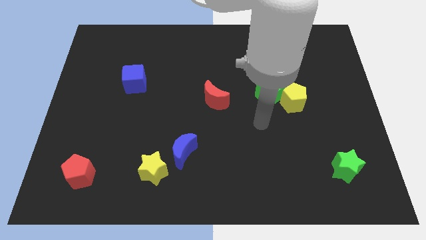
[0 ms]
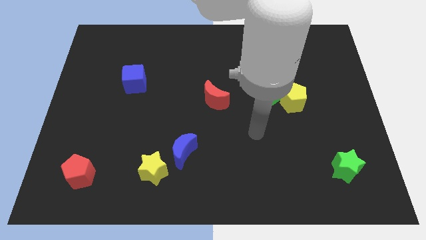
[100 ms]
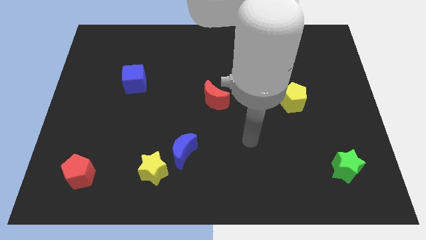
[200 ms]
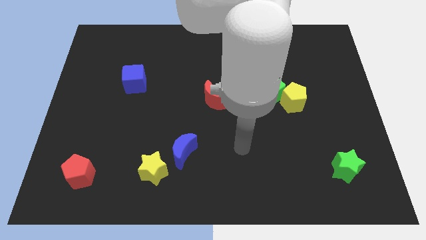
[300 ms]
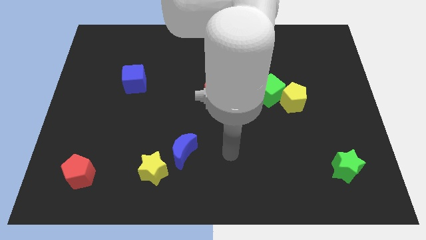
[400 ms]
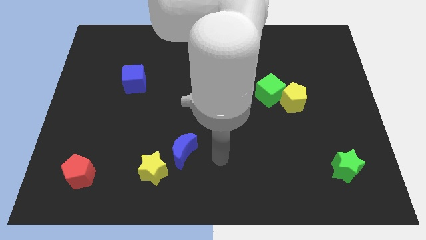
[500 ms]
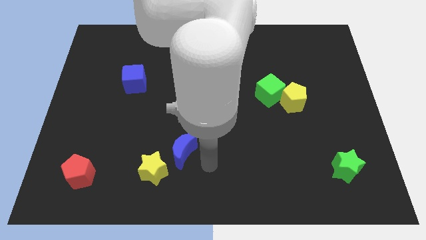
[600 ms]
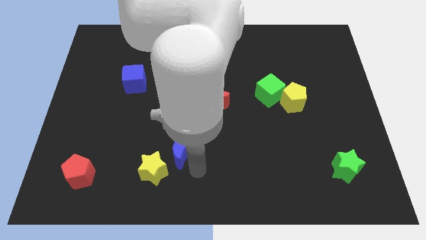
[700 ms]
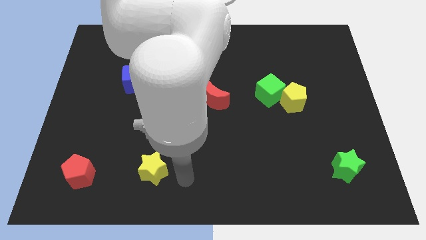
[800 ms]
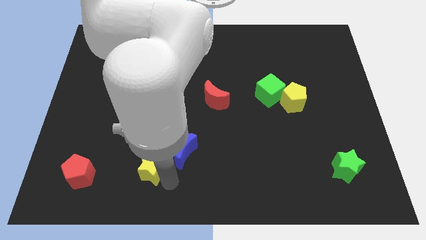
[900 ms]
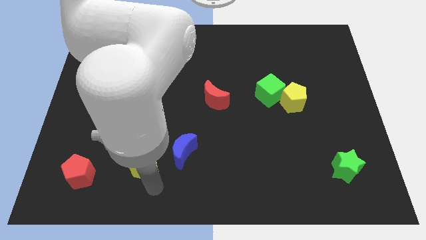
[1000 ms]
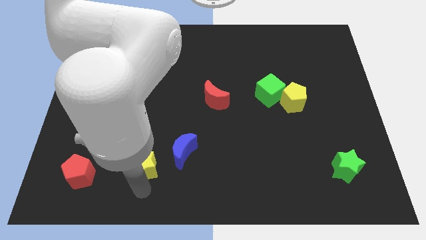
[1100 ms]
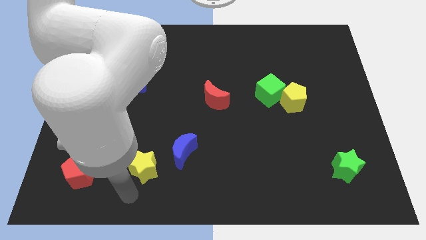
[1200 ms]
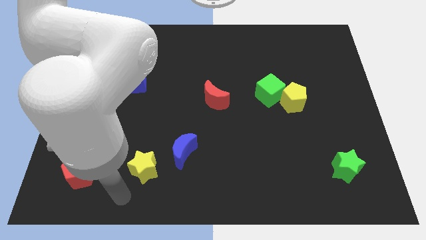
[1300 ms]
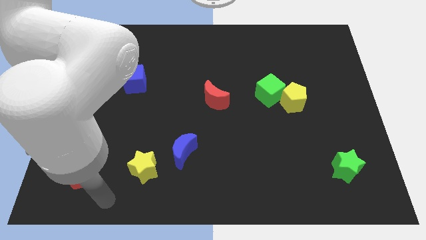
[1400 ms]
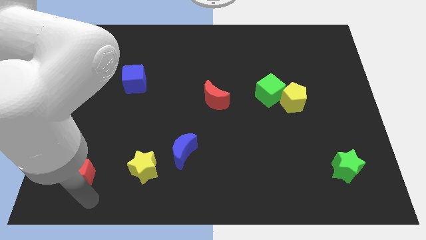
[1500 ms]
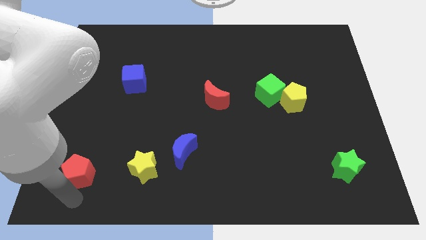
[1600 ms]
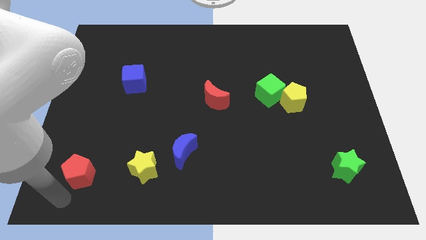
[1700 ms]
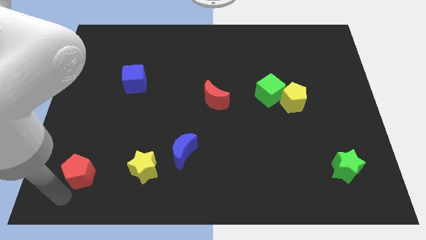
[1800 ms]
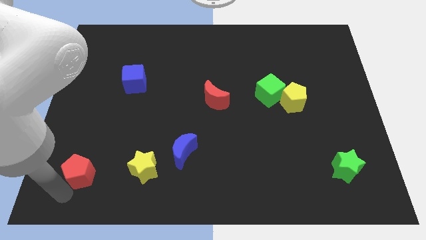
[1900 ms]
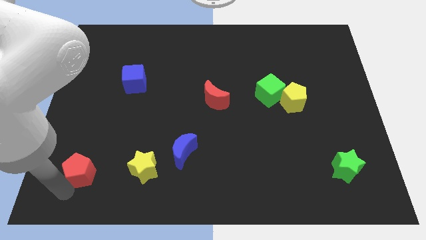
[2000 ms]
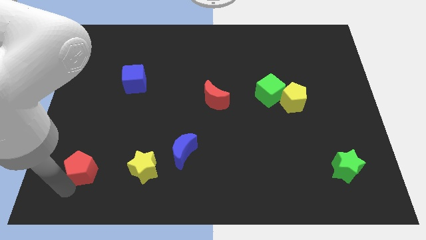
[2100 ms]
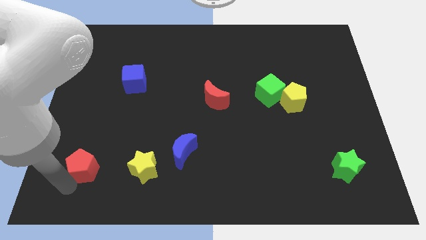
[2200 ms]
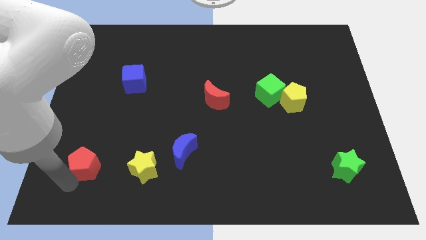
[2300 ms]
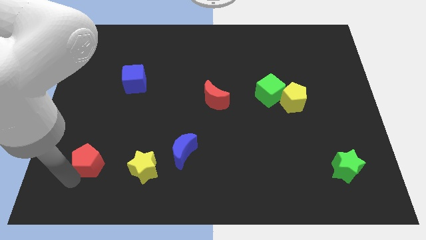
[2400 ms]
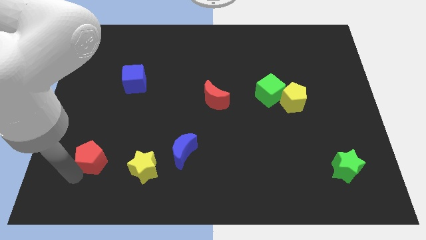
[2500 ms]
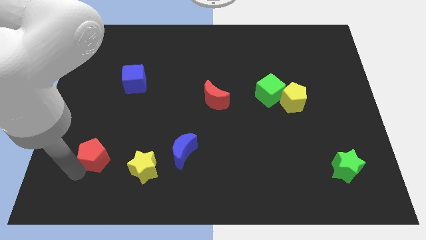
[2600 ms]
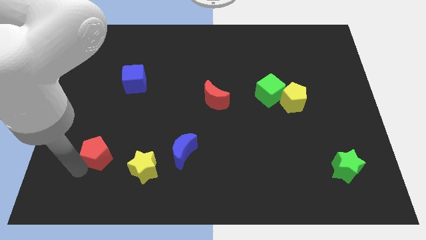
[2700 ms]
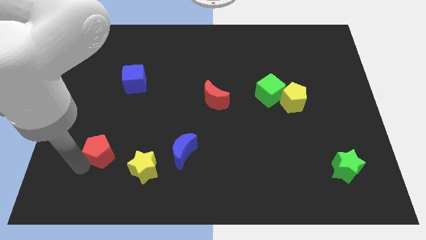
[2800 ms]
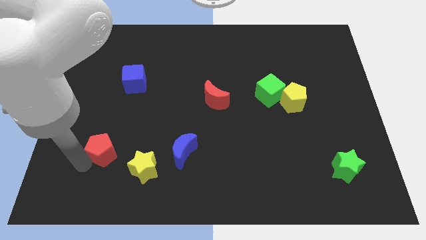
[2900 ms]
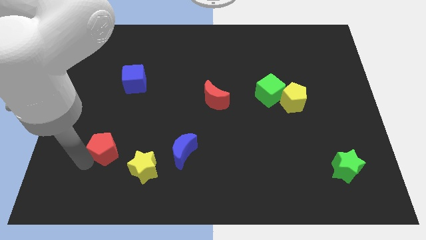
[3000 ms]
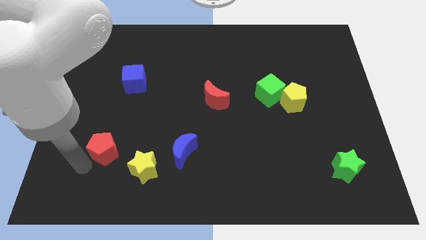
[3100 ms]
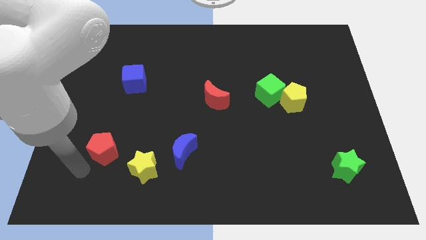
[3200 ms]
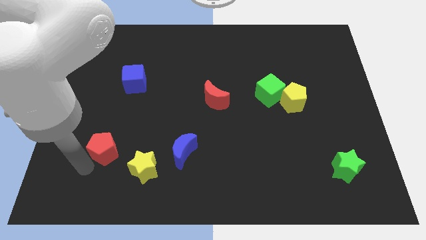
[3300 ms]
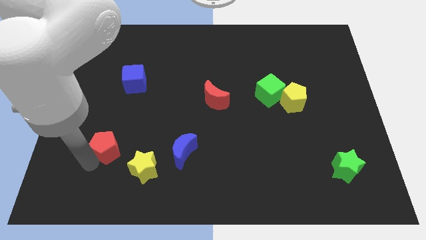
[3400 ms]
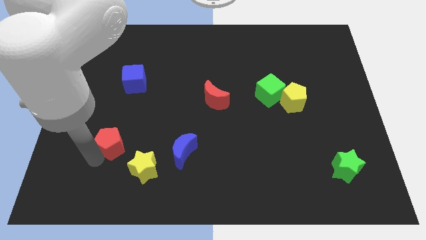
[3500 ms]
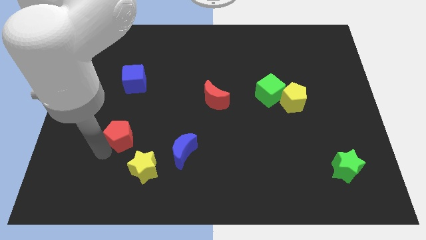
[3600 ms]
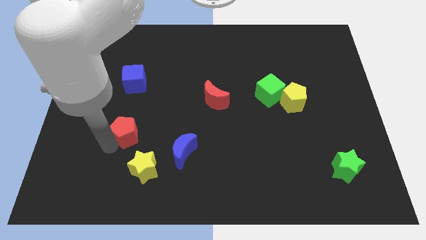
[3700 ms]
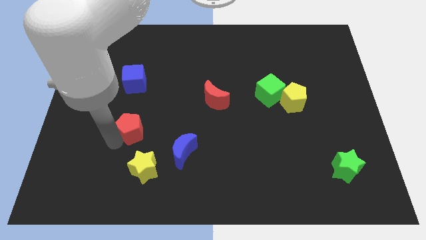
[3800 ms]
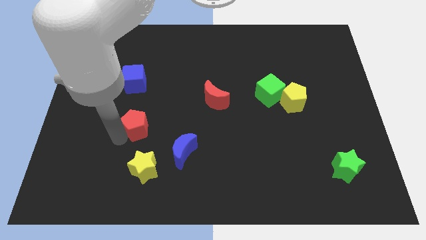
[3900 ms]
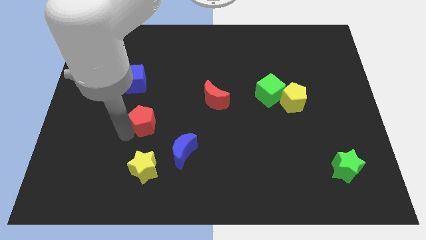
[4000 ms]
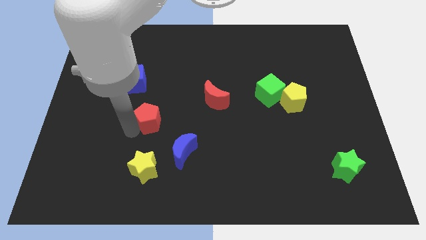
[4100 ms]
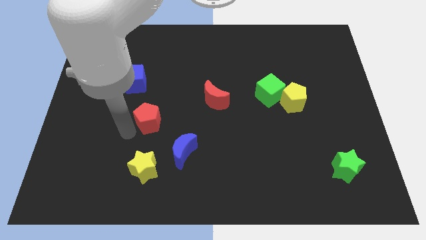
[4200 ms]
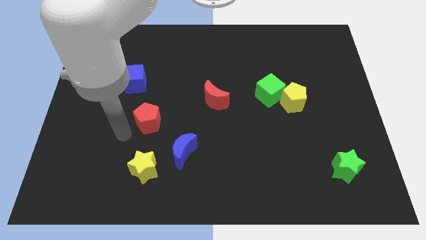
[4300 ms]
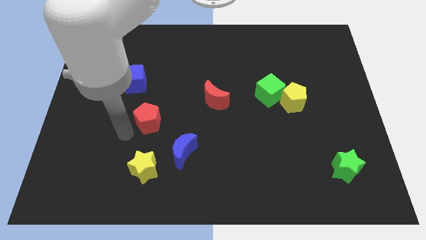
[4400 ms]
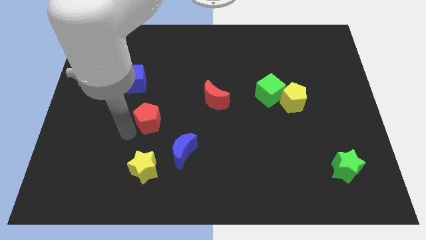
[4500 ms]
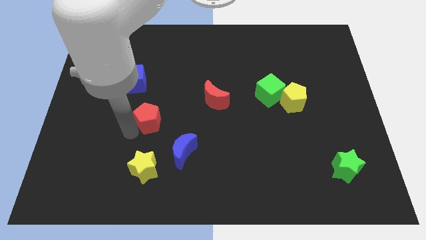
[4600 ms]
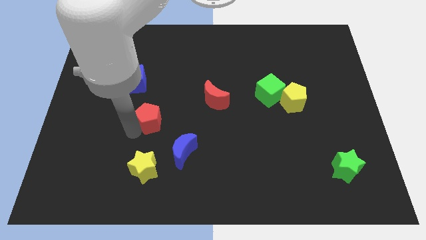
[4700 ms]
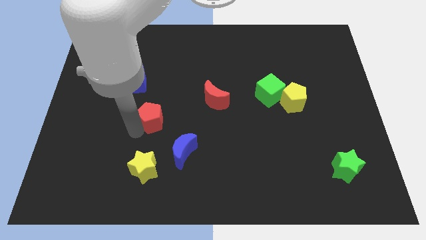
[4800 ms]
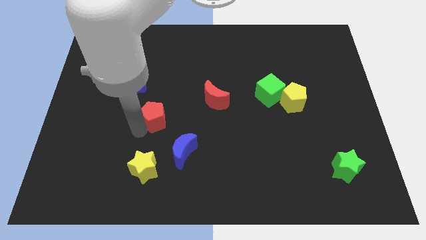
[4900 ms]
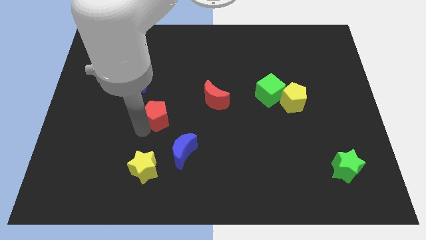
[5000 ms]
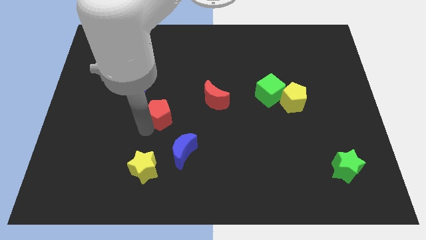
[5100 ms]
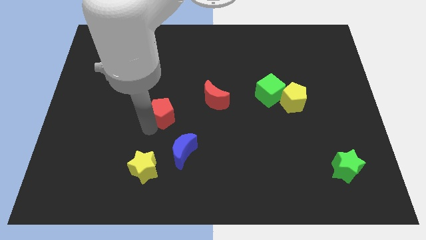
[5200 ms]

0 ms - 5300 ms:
move the red pentagon to the left side of the red moon

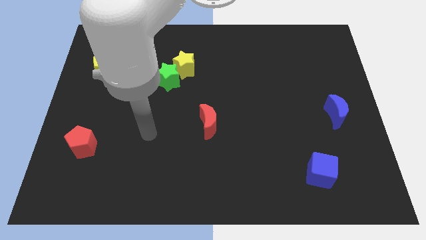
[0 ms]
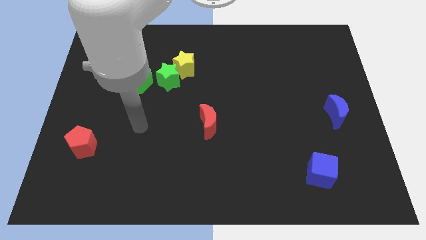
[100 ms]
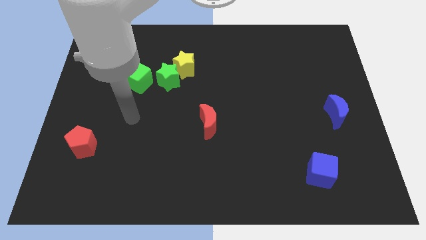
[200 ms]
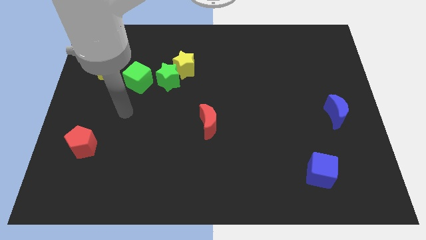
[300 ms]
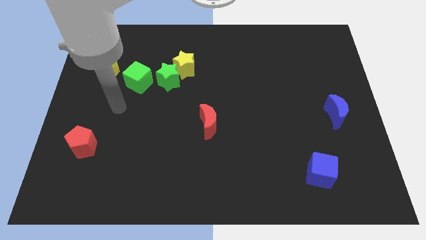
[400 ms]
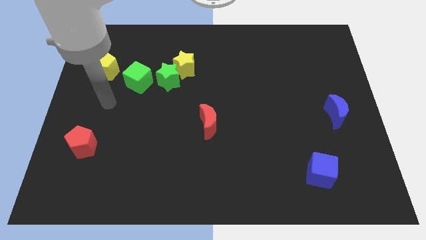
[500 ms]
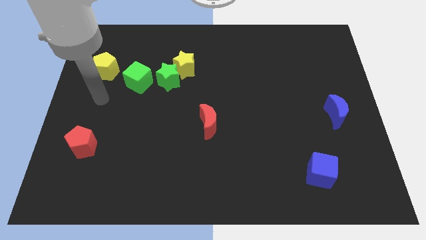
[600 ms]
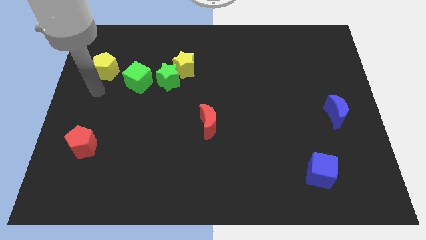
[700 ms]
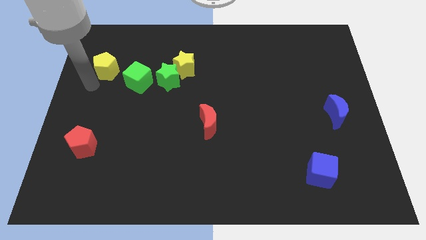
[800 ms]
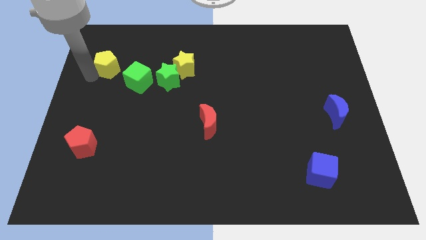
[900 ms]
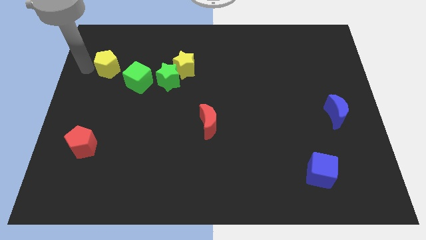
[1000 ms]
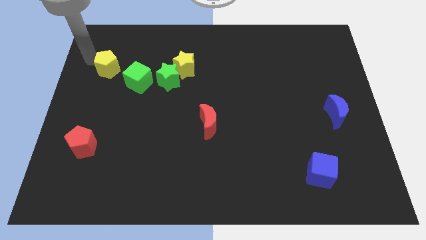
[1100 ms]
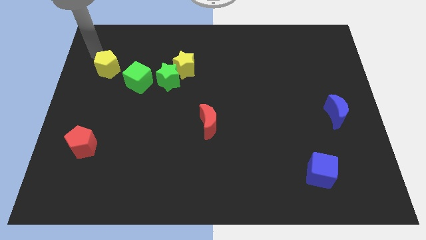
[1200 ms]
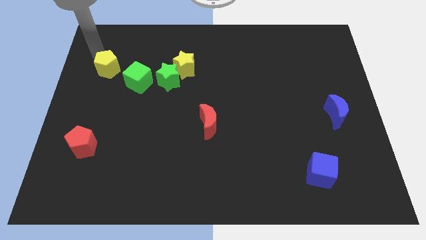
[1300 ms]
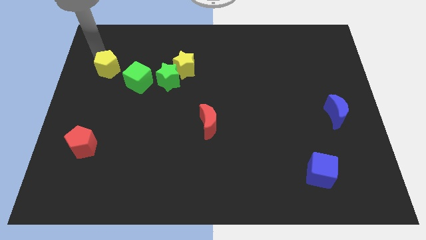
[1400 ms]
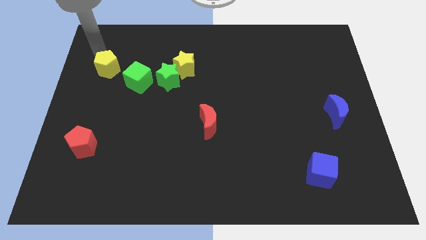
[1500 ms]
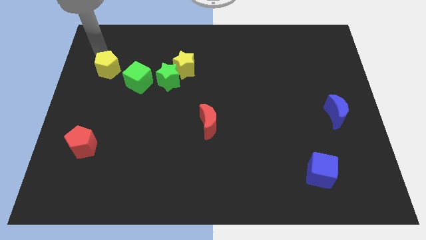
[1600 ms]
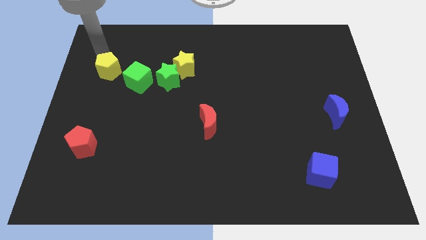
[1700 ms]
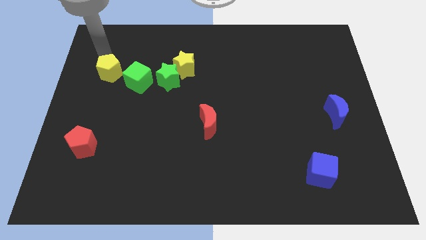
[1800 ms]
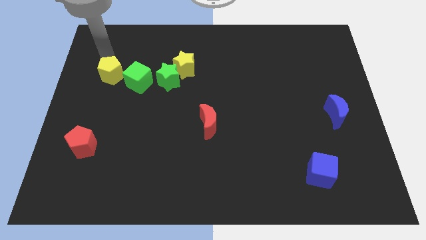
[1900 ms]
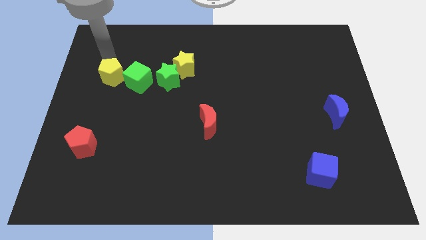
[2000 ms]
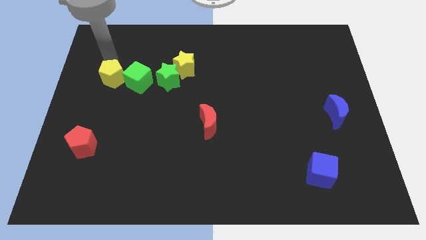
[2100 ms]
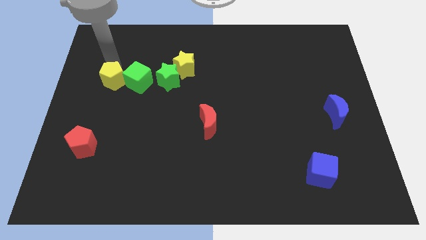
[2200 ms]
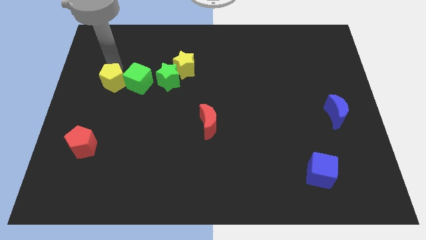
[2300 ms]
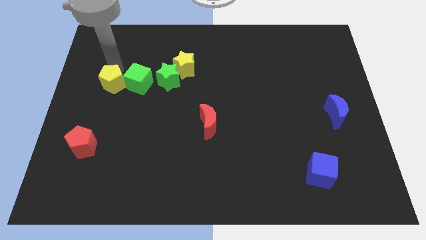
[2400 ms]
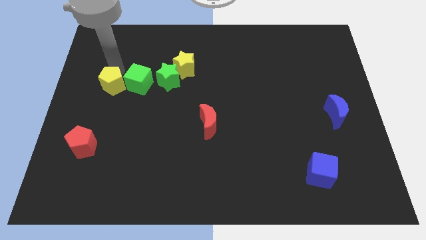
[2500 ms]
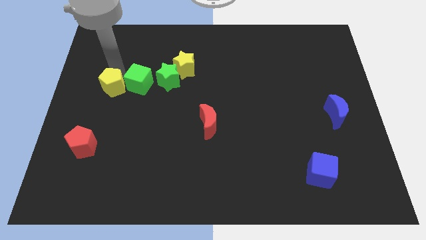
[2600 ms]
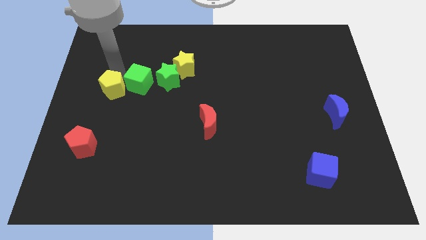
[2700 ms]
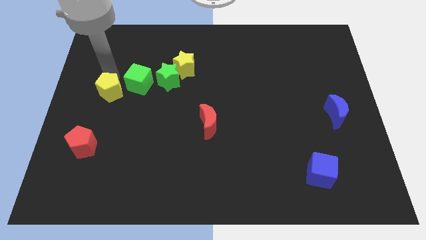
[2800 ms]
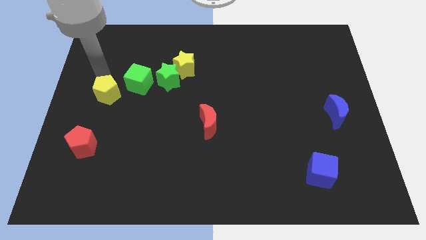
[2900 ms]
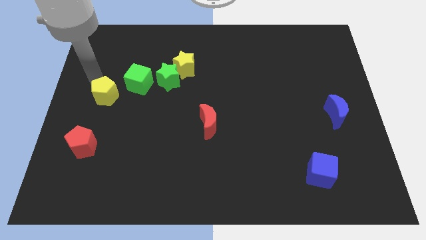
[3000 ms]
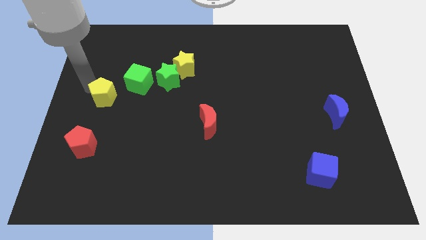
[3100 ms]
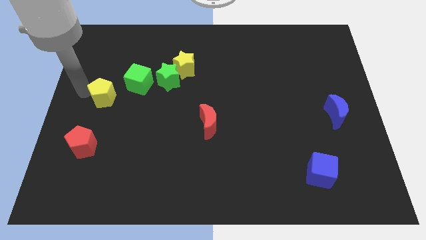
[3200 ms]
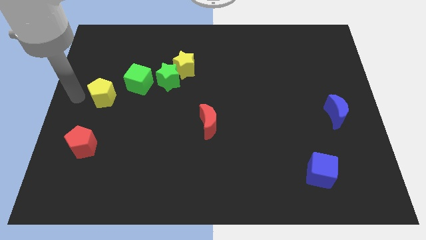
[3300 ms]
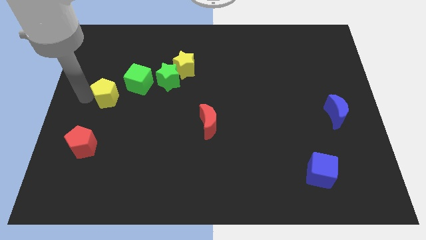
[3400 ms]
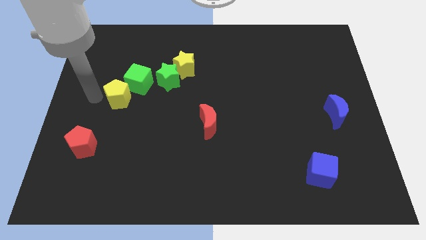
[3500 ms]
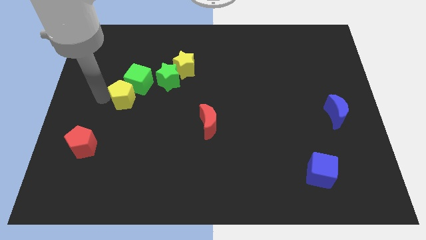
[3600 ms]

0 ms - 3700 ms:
push the yellow pentagon to the bottom left of the green star
